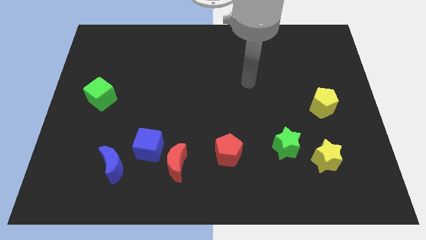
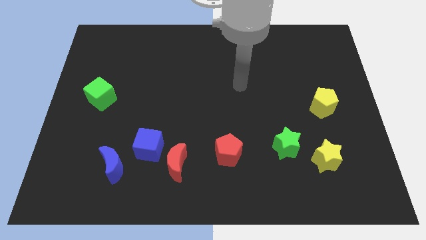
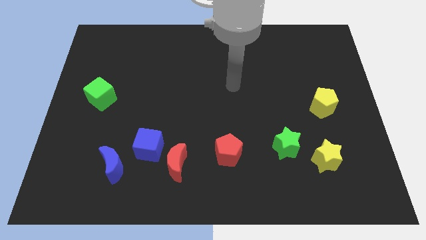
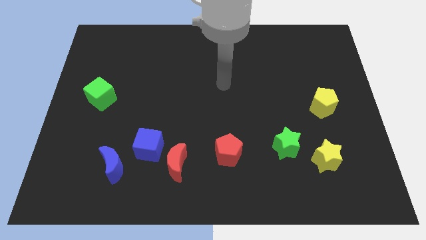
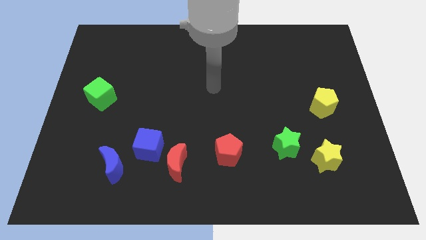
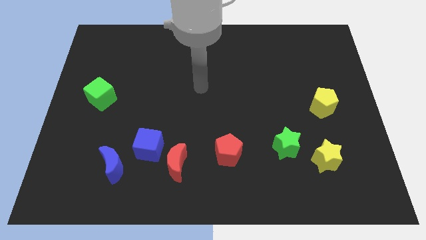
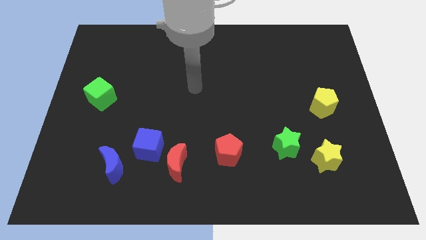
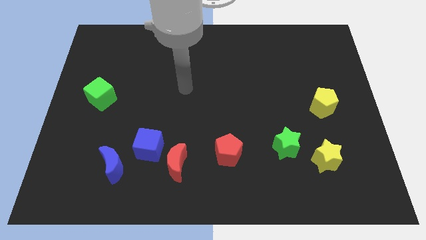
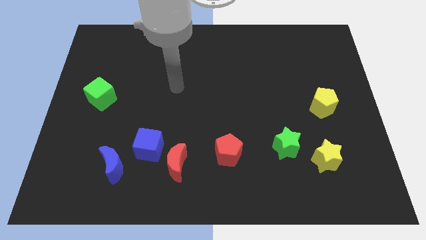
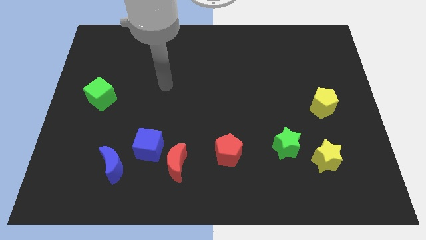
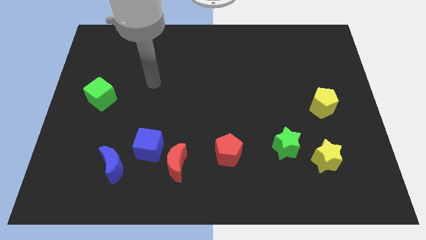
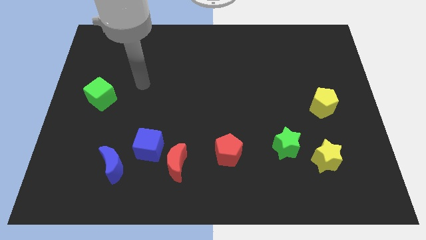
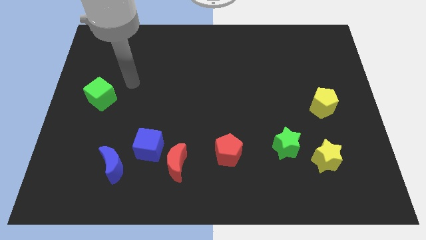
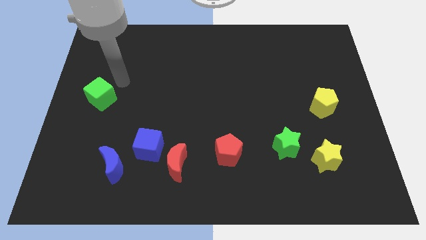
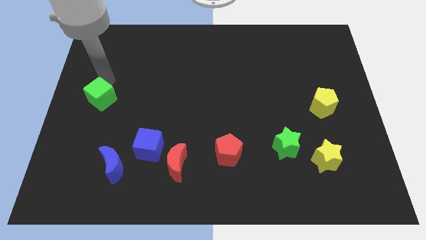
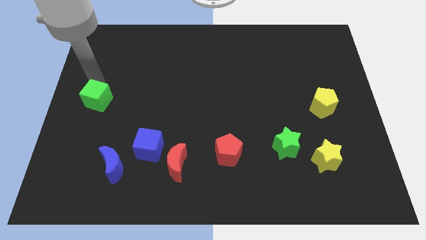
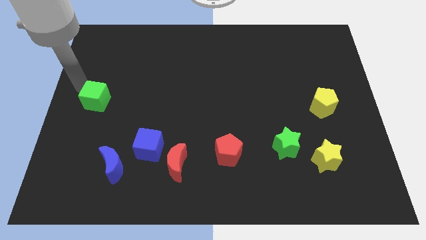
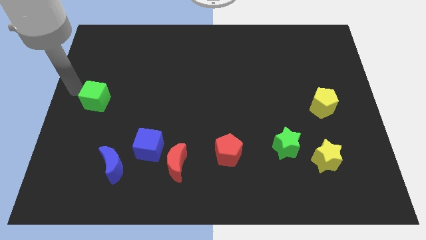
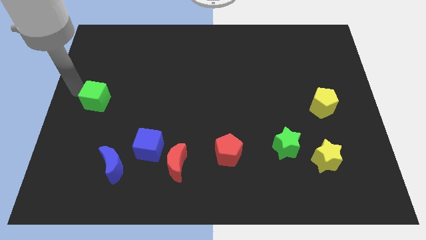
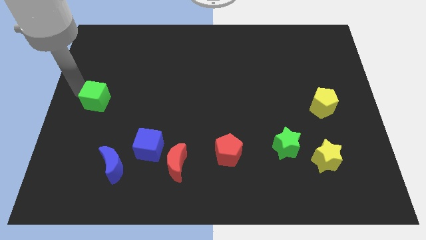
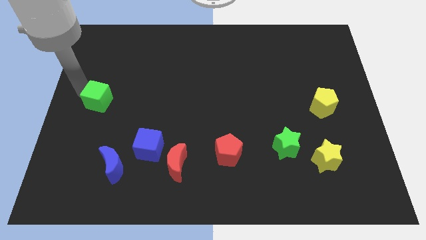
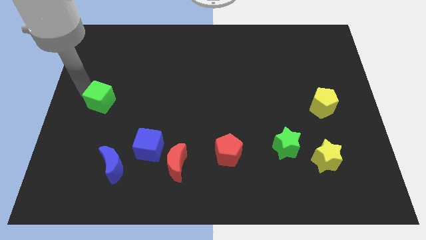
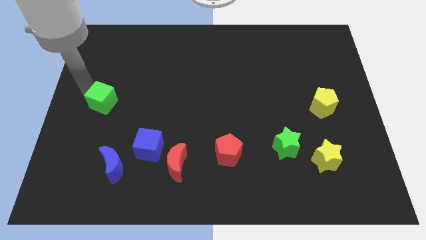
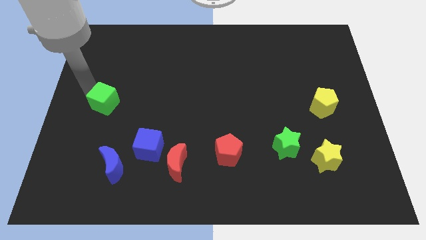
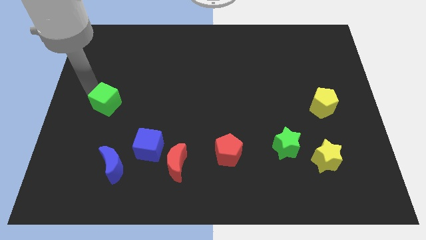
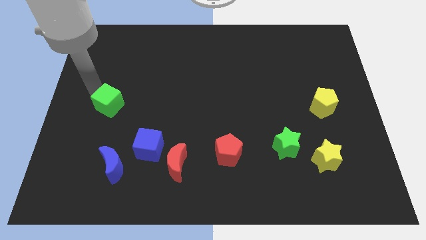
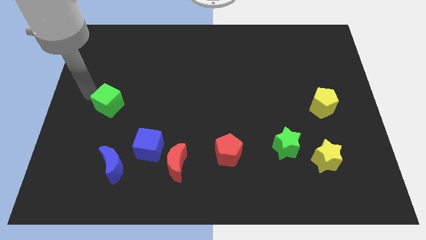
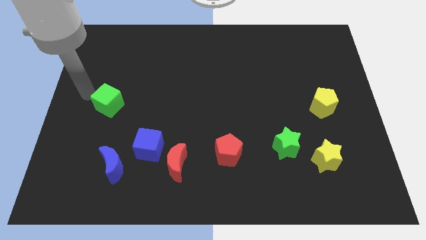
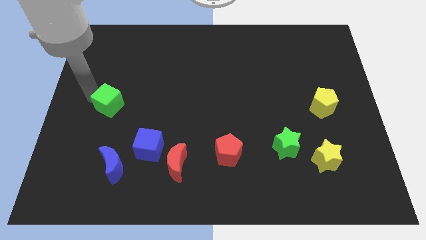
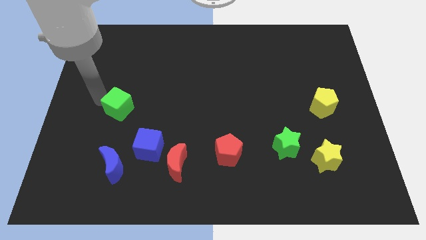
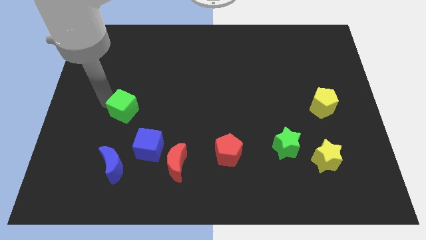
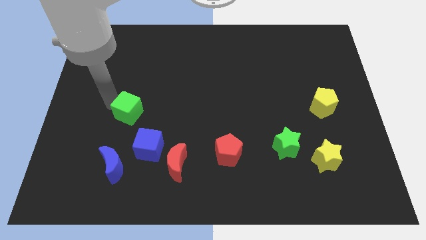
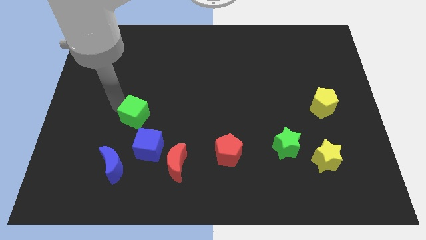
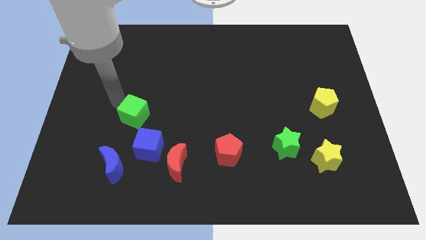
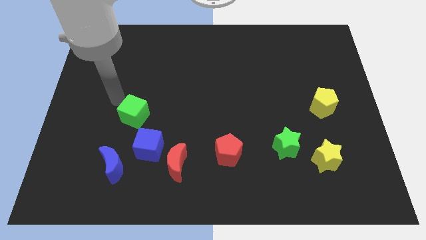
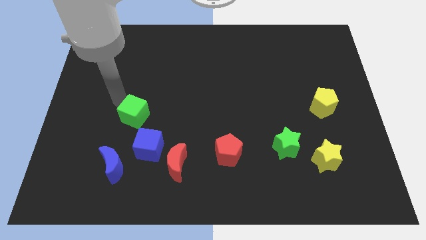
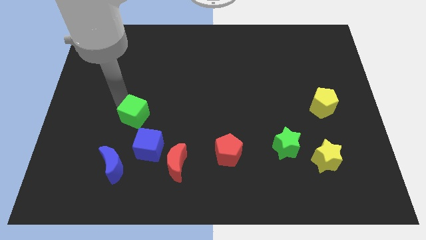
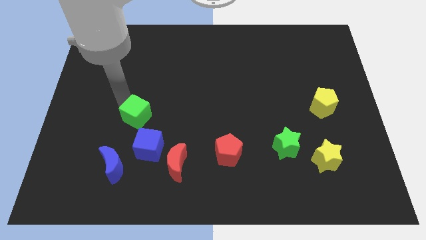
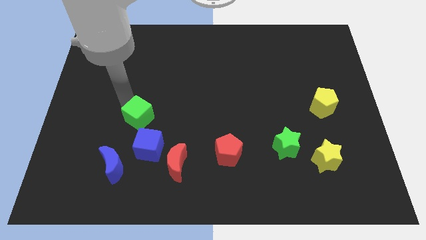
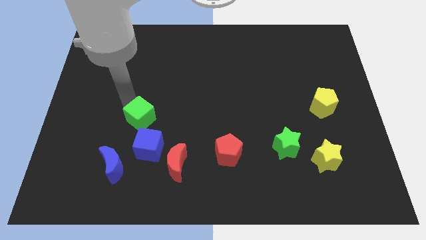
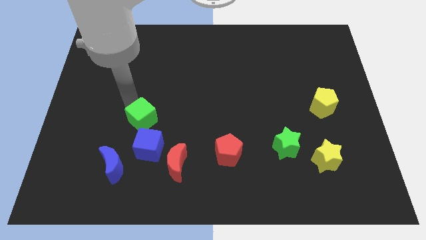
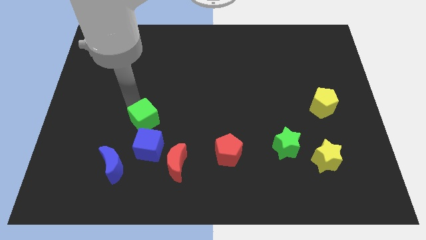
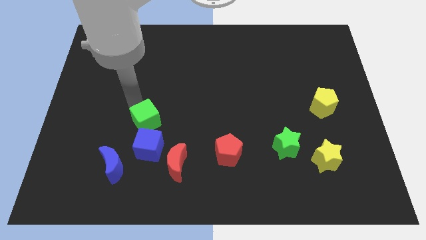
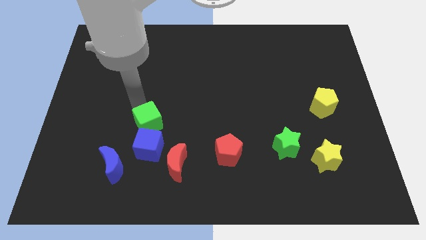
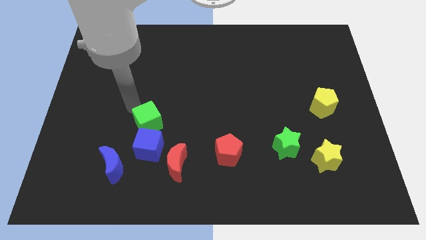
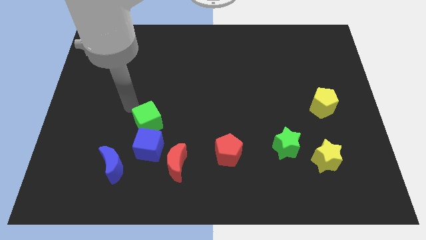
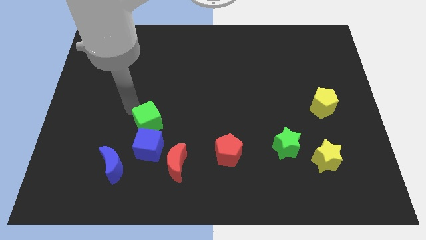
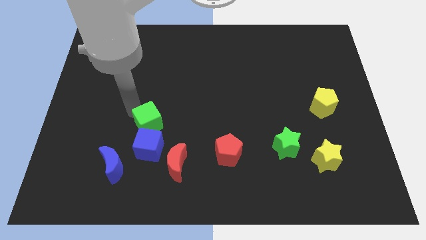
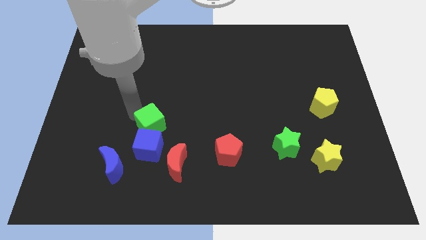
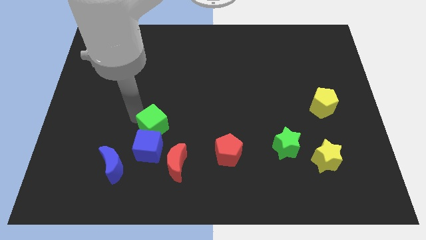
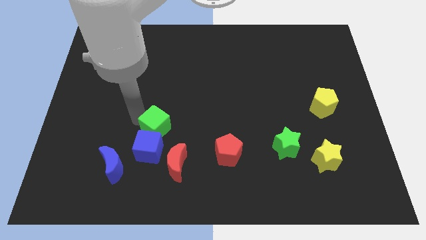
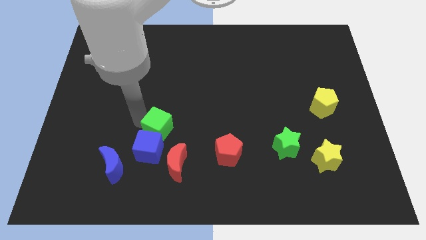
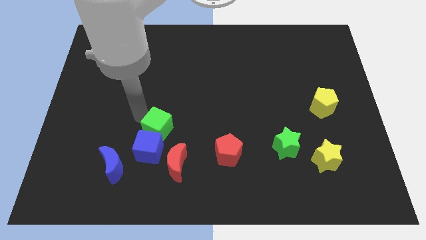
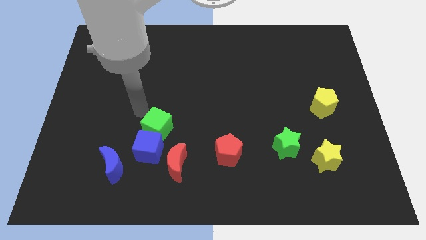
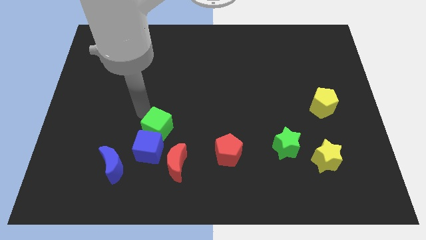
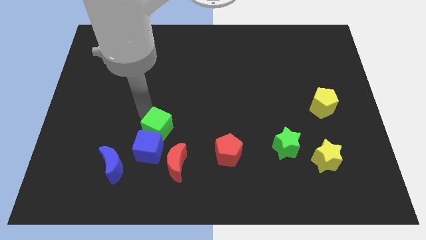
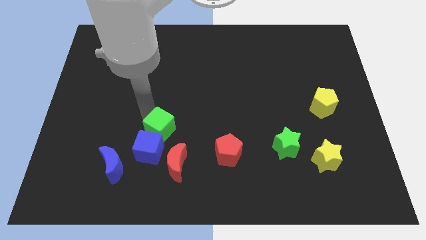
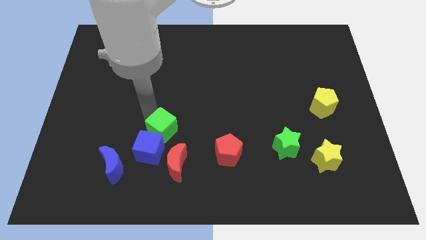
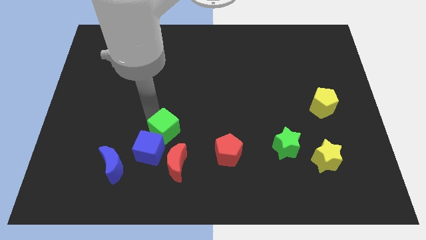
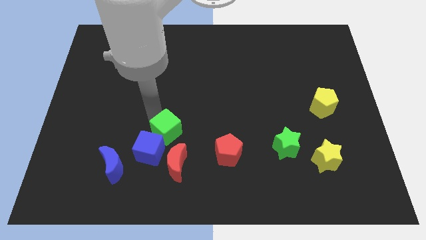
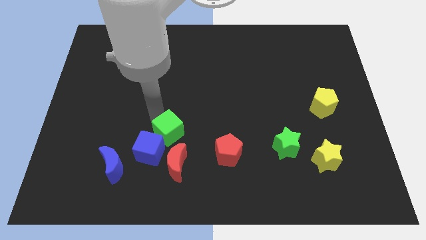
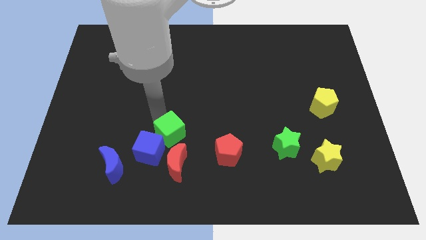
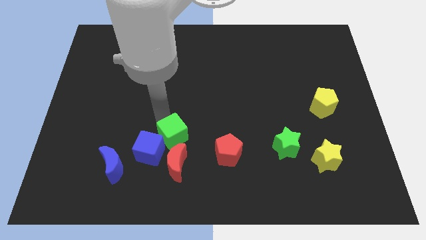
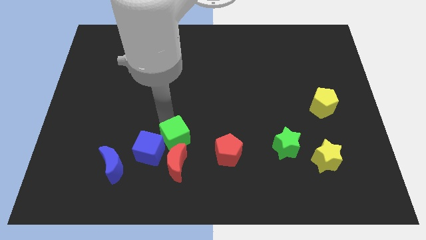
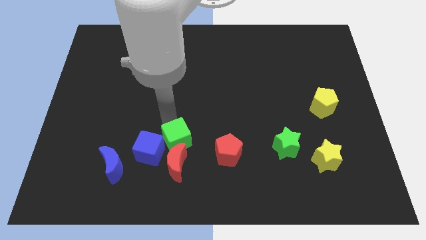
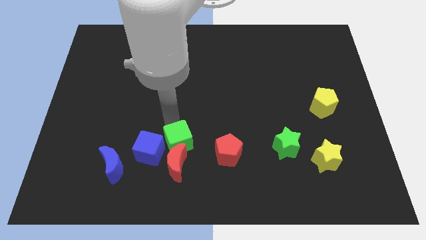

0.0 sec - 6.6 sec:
slide the green cube to the red moon

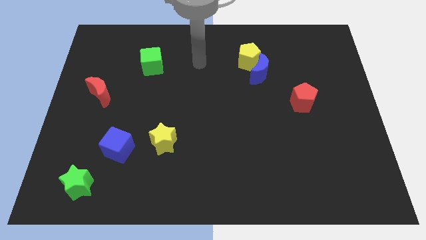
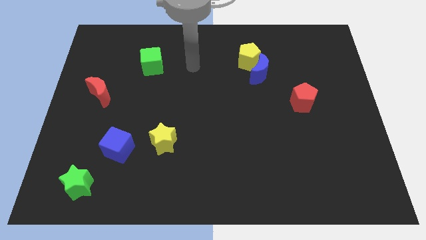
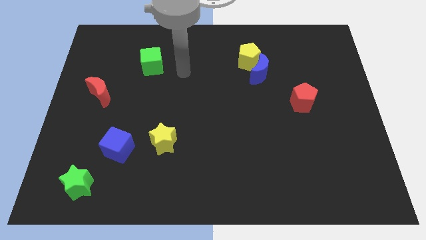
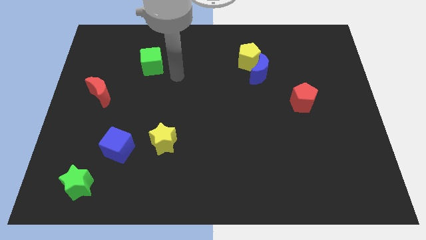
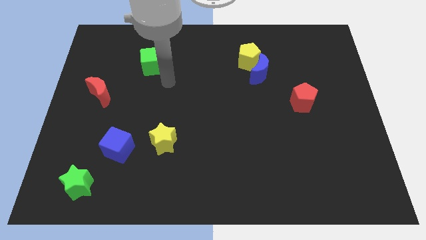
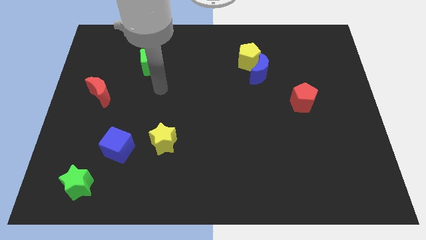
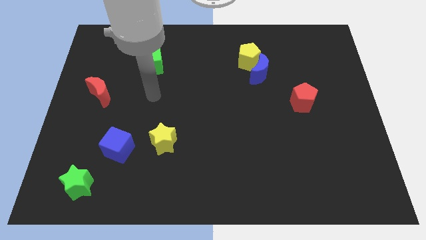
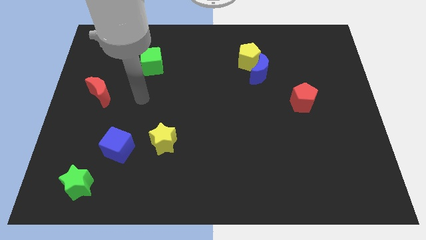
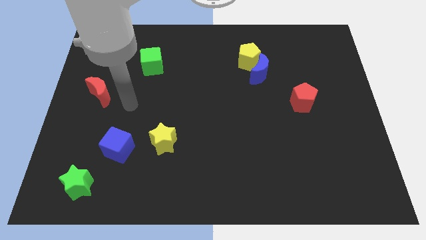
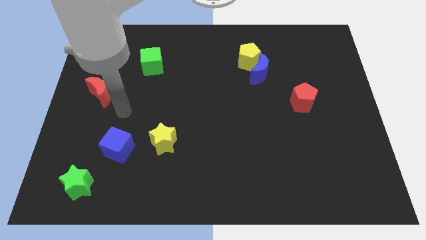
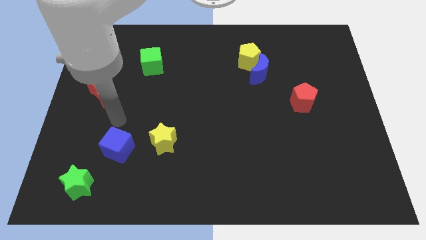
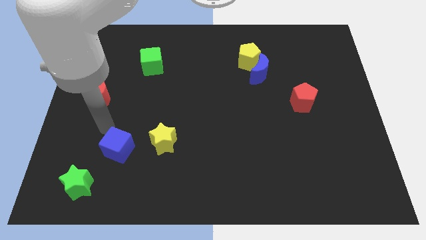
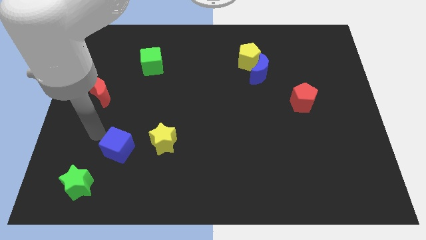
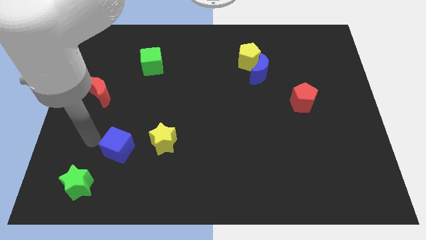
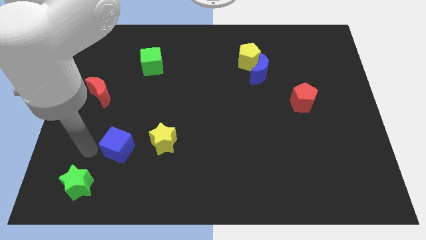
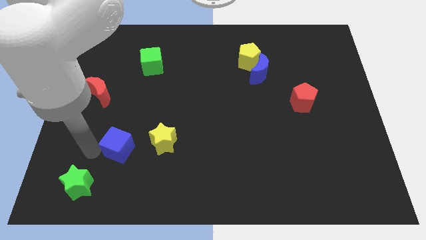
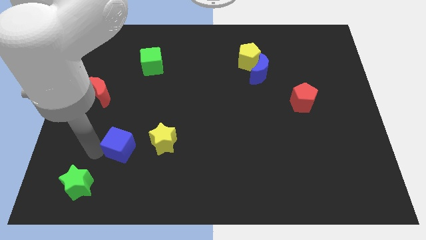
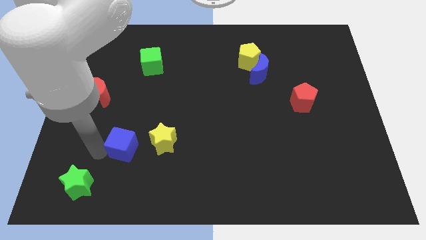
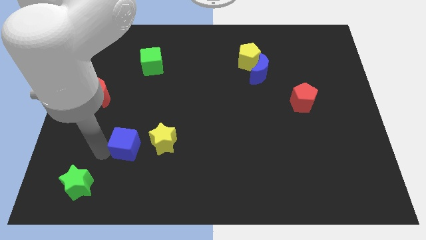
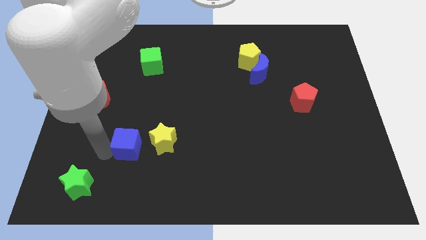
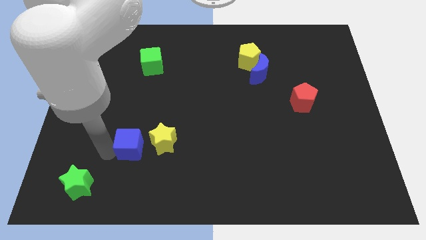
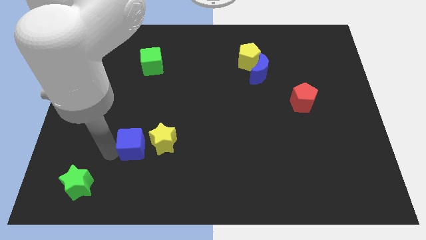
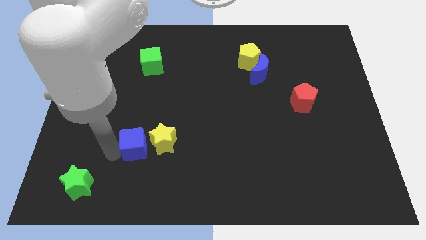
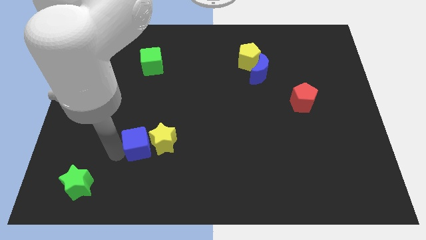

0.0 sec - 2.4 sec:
push the blue cube towards the yellow star
